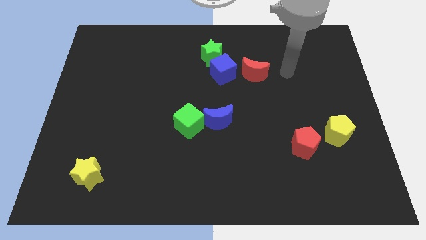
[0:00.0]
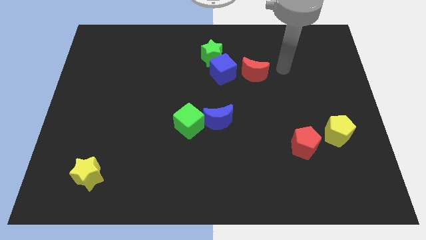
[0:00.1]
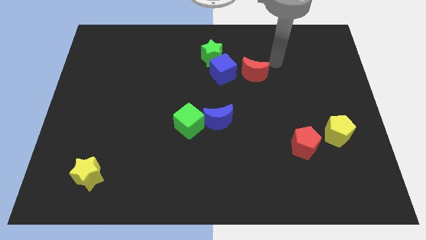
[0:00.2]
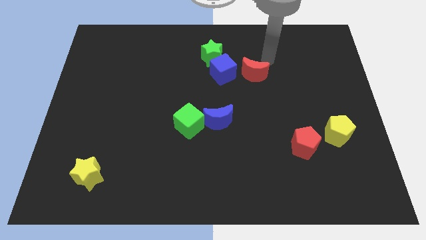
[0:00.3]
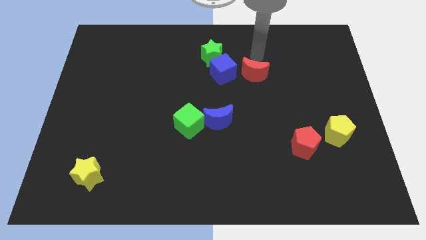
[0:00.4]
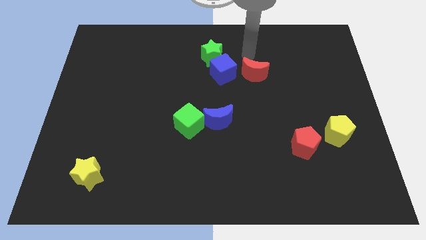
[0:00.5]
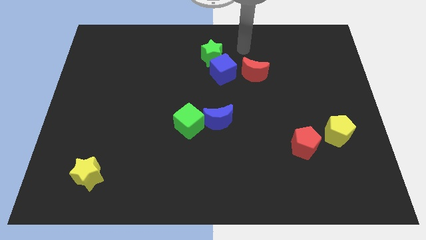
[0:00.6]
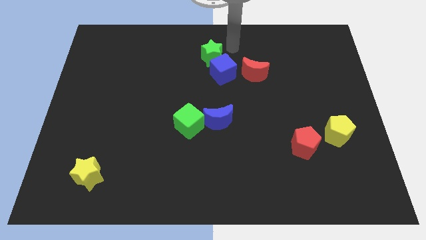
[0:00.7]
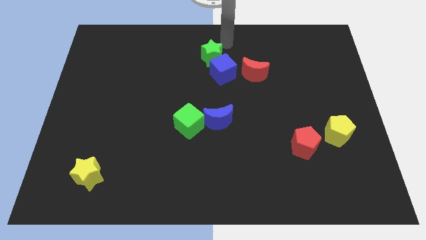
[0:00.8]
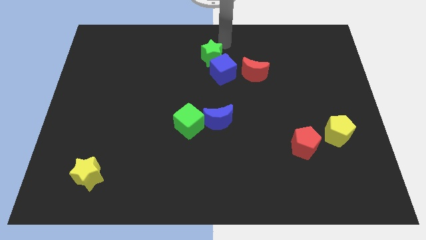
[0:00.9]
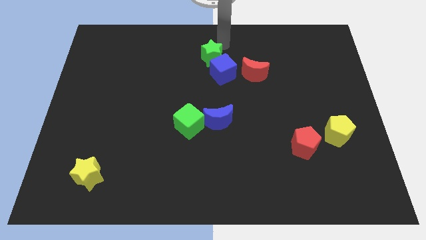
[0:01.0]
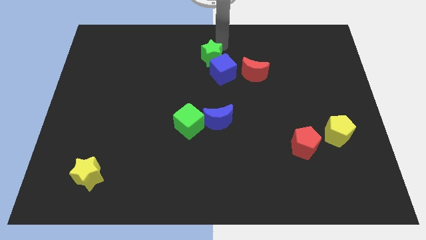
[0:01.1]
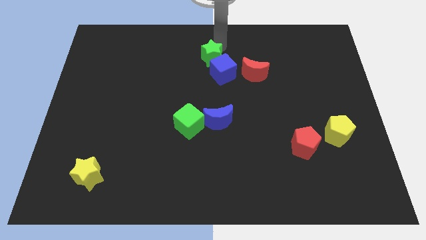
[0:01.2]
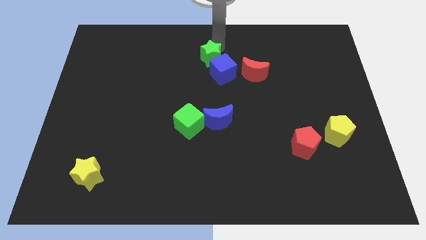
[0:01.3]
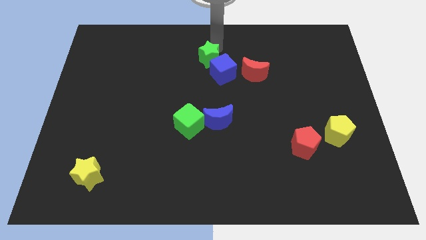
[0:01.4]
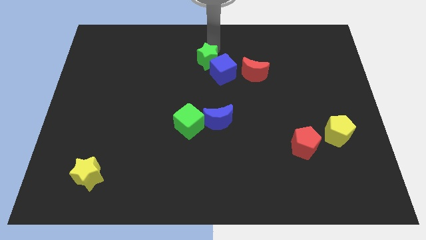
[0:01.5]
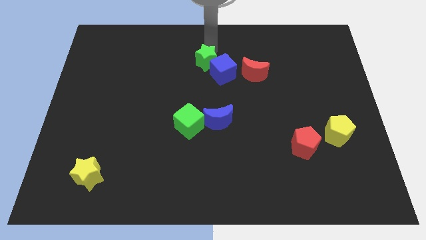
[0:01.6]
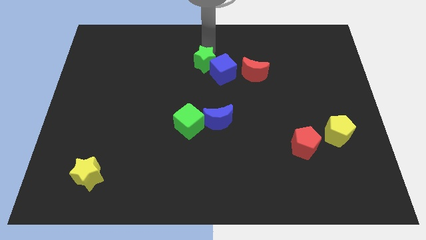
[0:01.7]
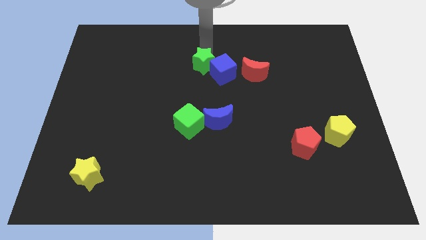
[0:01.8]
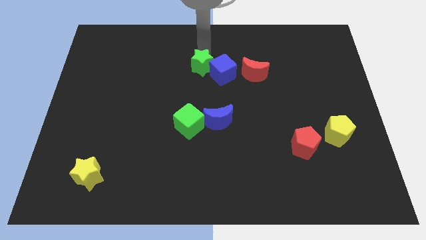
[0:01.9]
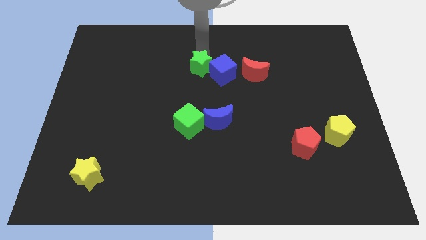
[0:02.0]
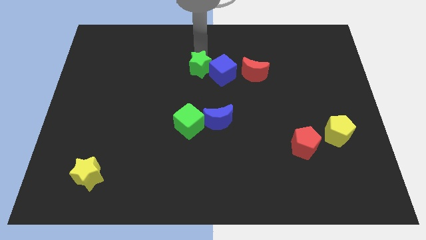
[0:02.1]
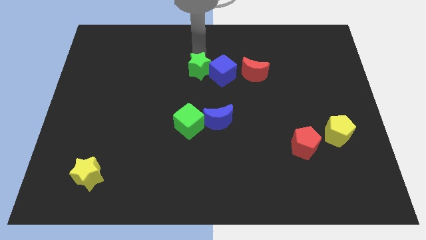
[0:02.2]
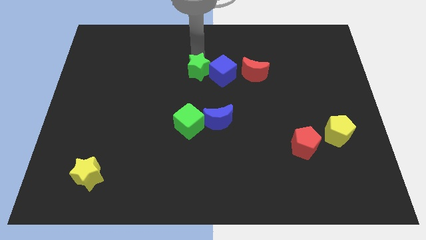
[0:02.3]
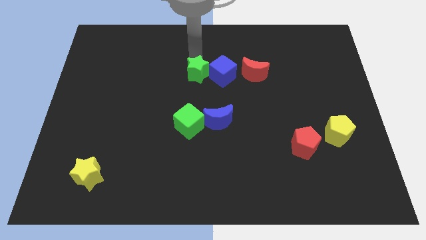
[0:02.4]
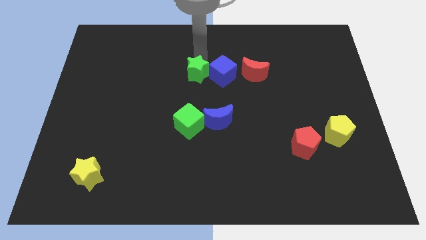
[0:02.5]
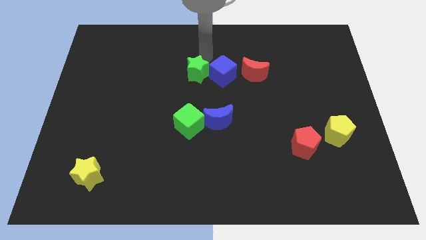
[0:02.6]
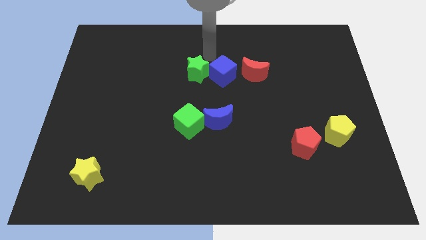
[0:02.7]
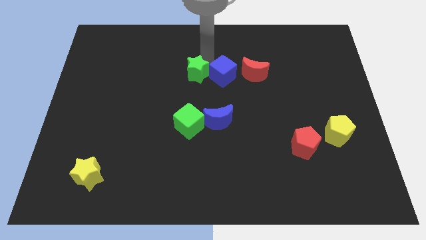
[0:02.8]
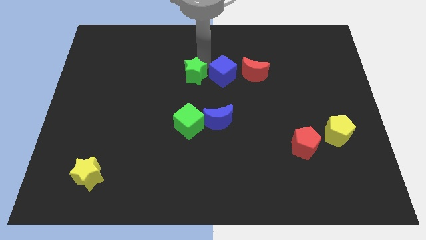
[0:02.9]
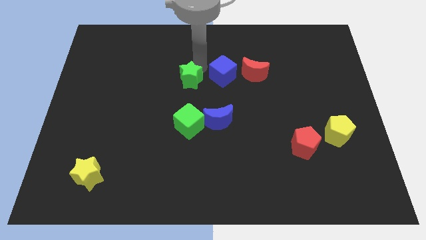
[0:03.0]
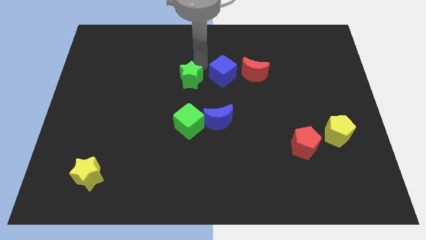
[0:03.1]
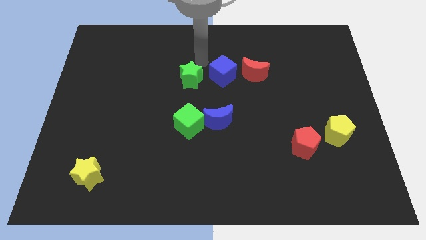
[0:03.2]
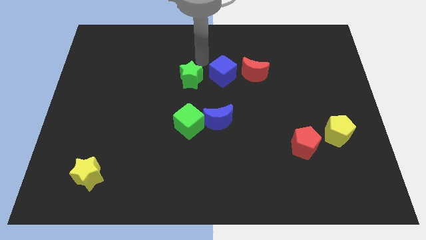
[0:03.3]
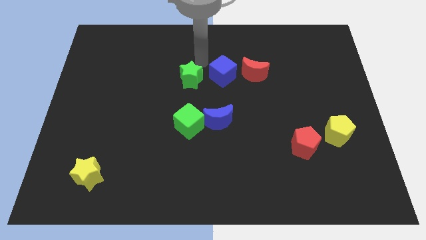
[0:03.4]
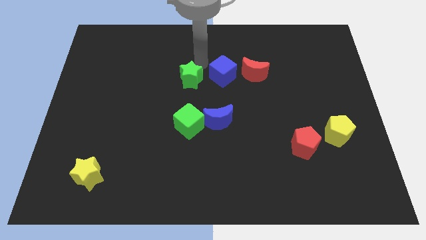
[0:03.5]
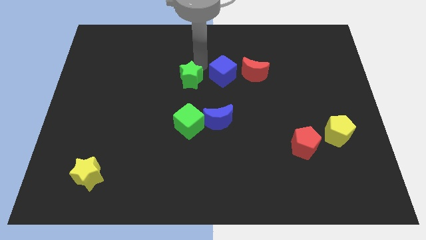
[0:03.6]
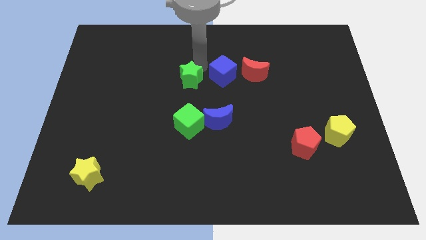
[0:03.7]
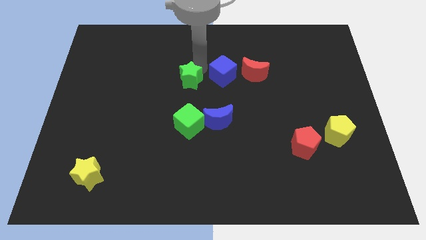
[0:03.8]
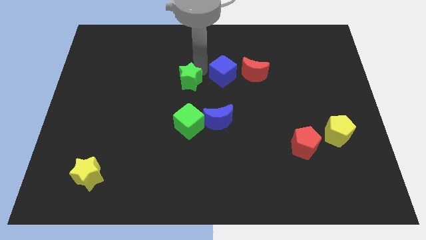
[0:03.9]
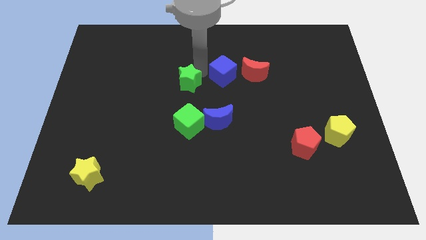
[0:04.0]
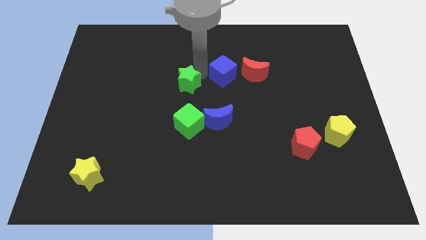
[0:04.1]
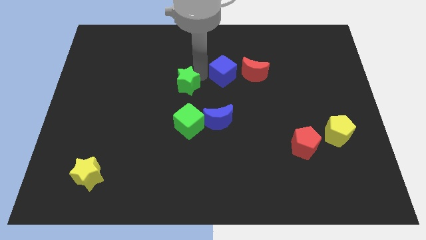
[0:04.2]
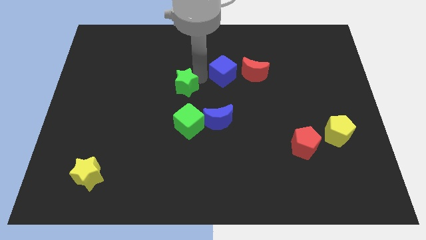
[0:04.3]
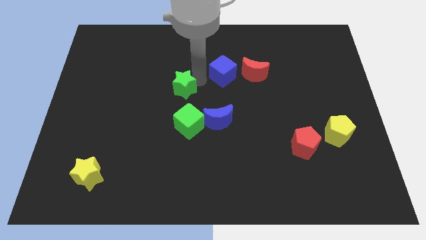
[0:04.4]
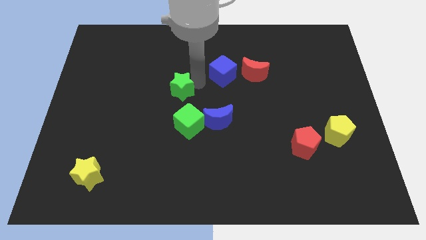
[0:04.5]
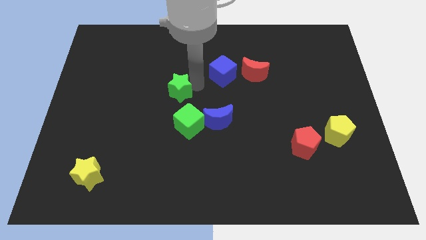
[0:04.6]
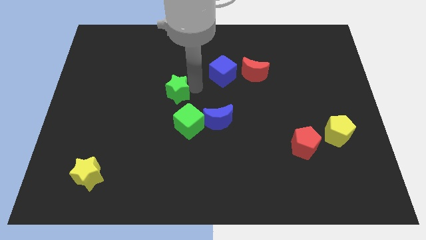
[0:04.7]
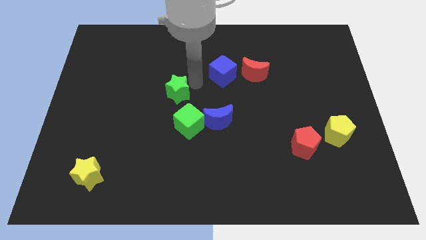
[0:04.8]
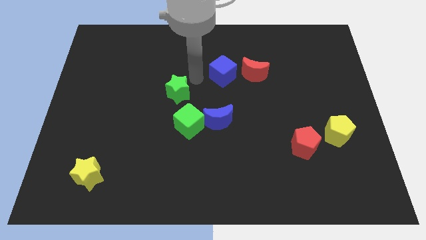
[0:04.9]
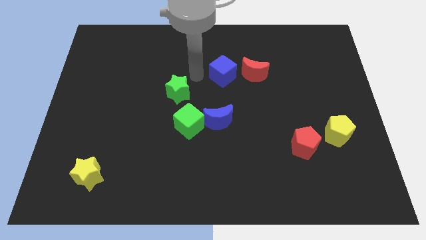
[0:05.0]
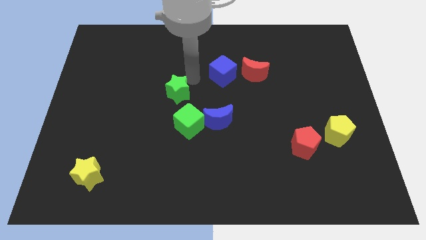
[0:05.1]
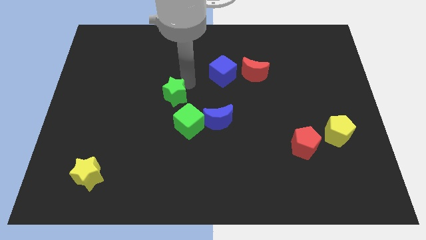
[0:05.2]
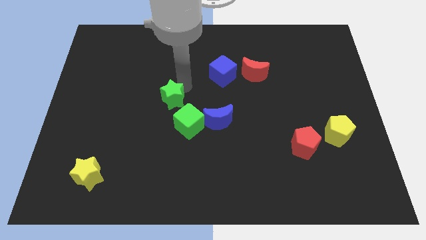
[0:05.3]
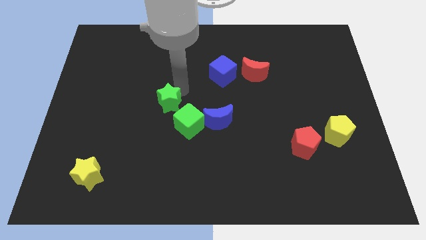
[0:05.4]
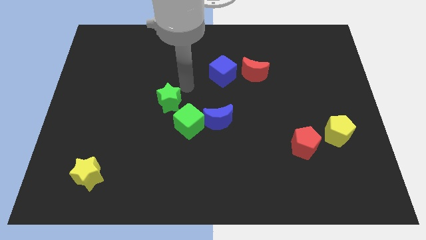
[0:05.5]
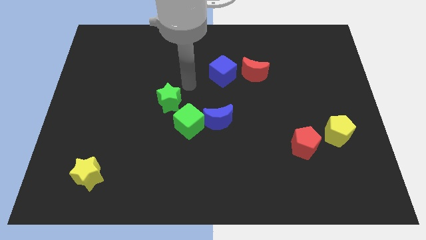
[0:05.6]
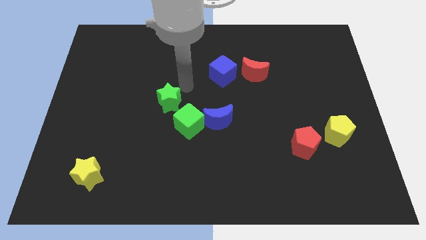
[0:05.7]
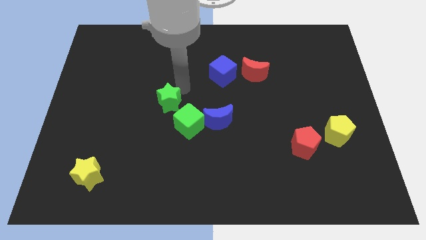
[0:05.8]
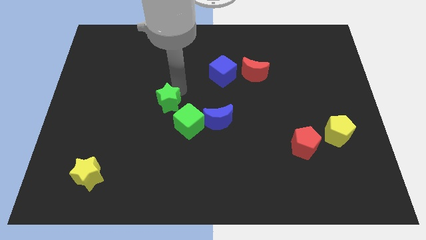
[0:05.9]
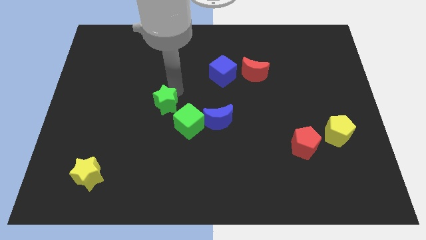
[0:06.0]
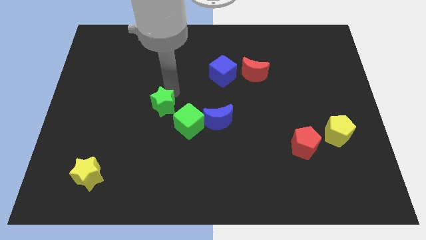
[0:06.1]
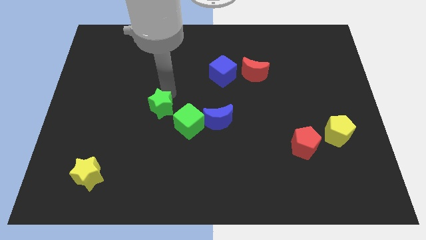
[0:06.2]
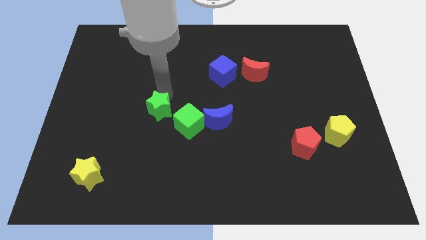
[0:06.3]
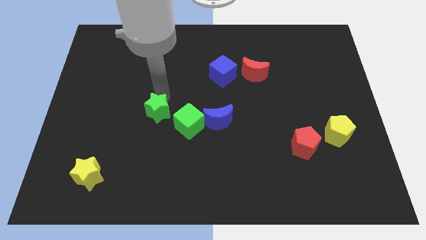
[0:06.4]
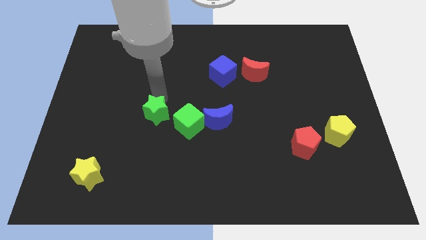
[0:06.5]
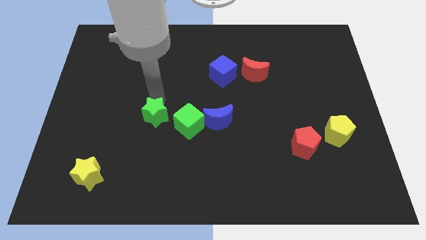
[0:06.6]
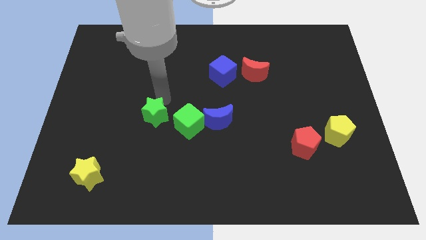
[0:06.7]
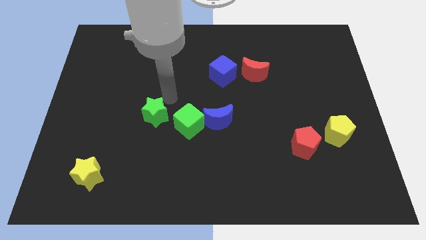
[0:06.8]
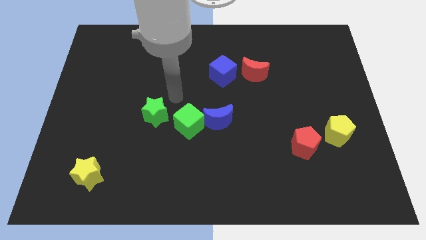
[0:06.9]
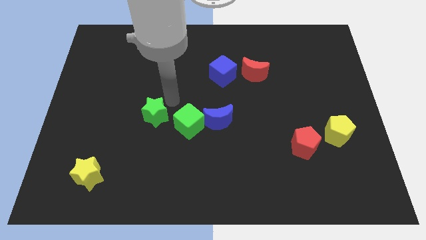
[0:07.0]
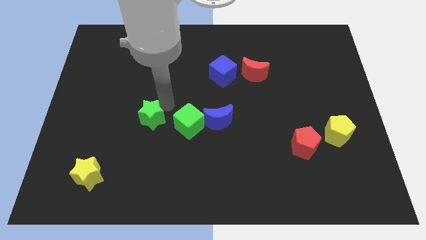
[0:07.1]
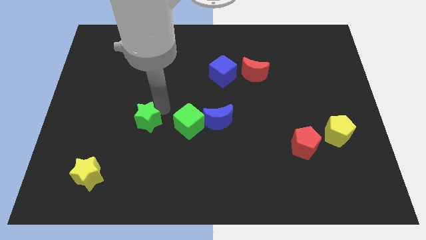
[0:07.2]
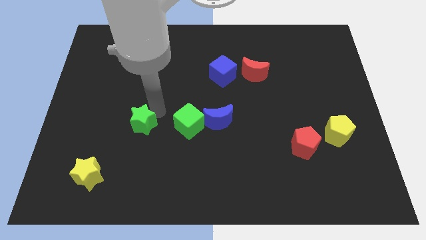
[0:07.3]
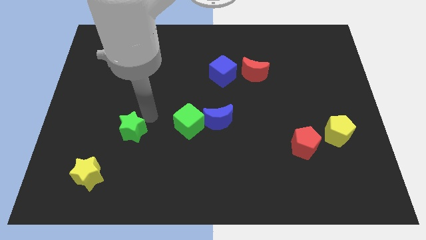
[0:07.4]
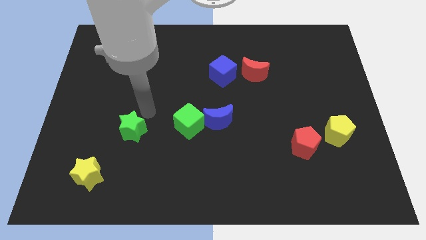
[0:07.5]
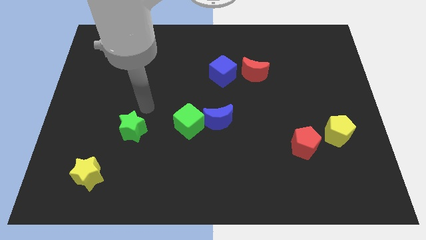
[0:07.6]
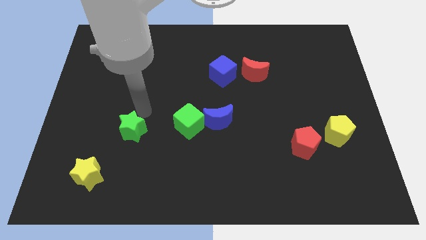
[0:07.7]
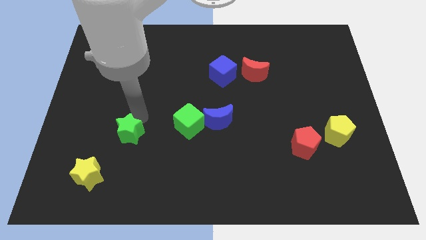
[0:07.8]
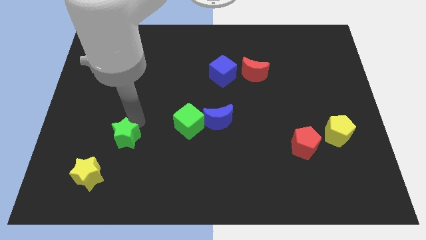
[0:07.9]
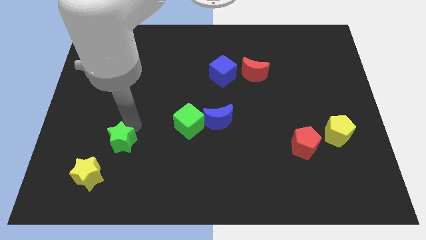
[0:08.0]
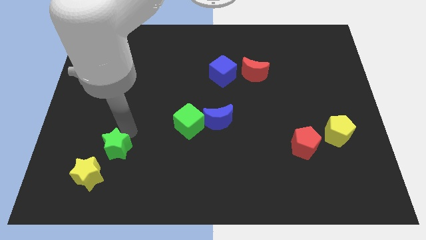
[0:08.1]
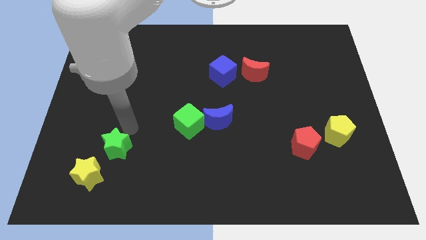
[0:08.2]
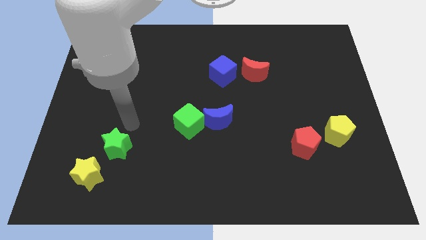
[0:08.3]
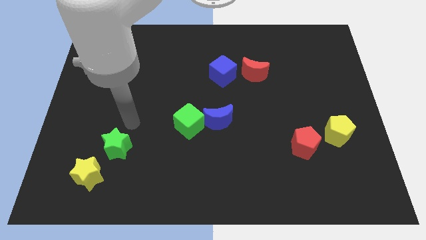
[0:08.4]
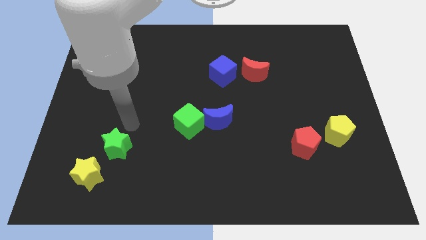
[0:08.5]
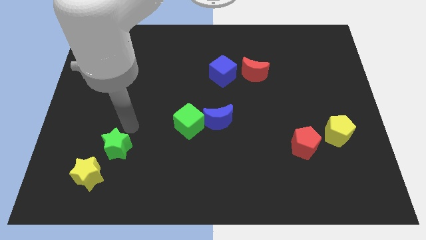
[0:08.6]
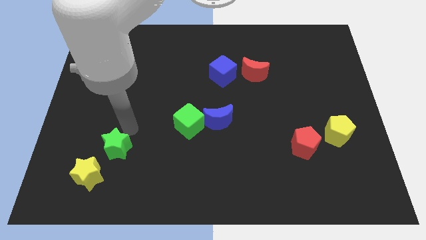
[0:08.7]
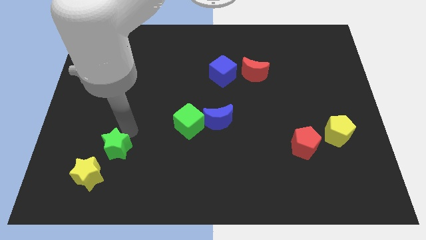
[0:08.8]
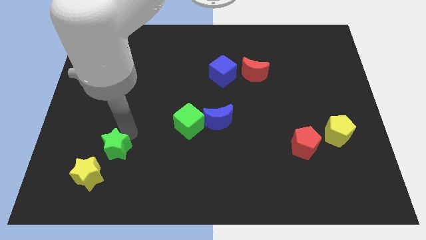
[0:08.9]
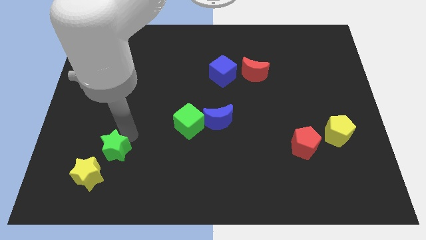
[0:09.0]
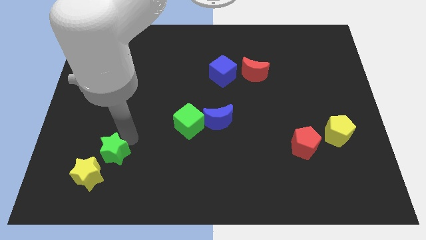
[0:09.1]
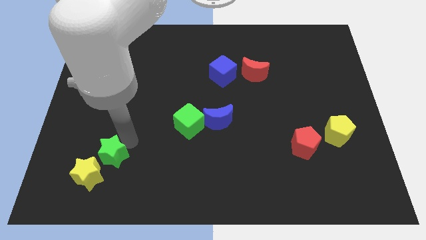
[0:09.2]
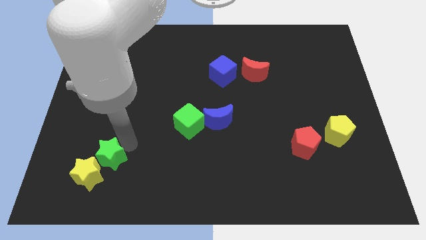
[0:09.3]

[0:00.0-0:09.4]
put the green star to the yellow star
